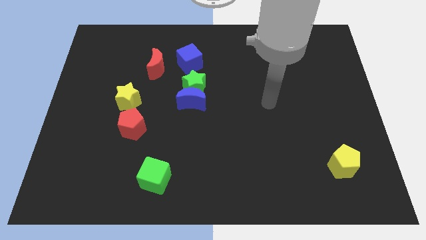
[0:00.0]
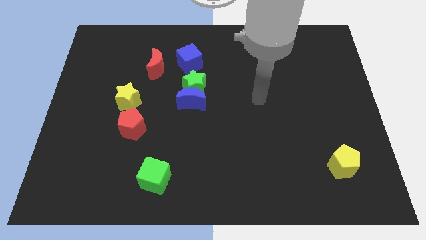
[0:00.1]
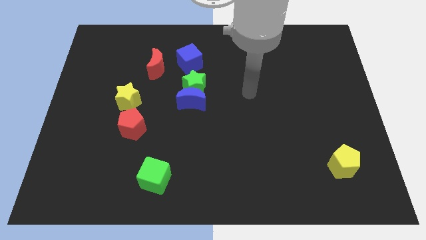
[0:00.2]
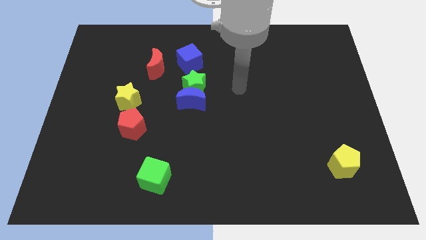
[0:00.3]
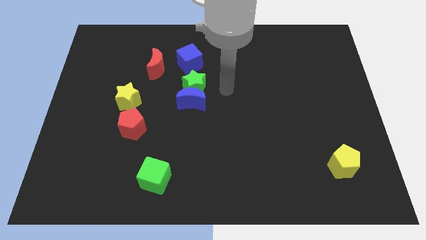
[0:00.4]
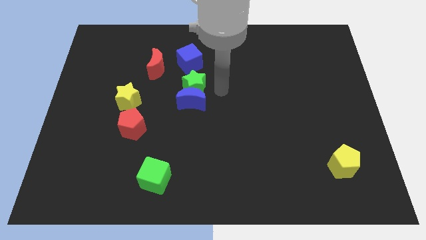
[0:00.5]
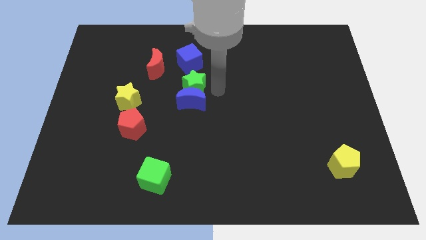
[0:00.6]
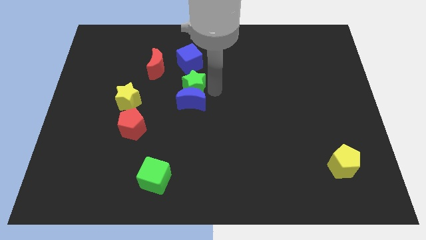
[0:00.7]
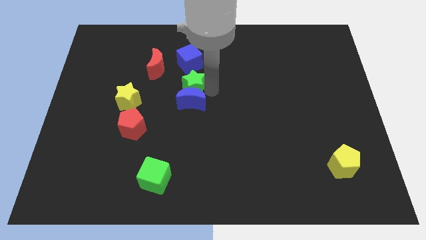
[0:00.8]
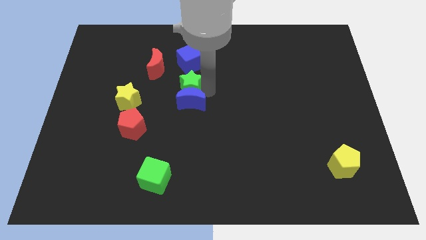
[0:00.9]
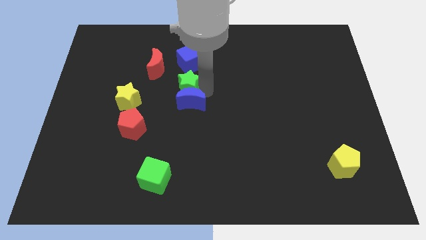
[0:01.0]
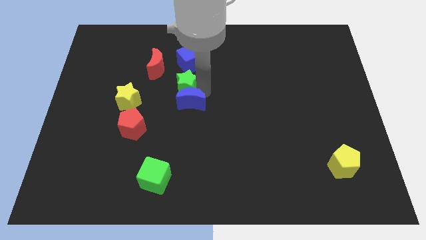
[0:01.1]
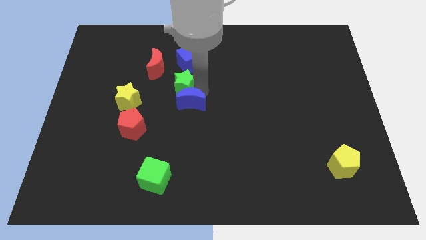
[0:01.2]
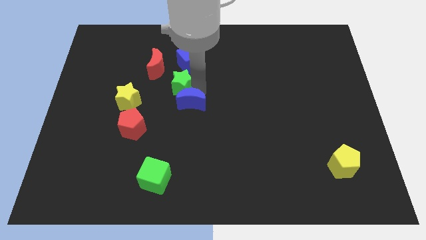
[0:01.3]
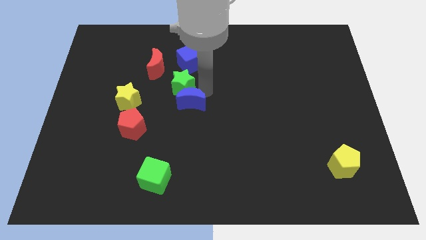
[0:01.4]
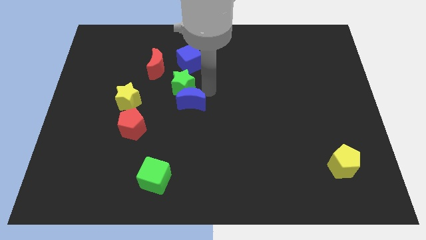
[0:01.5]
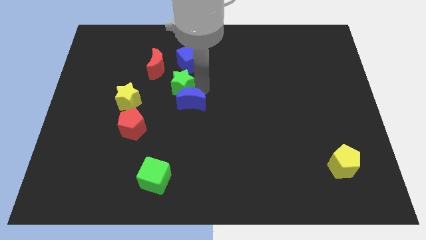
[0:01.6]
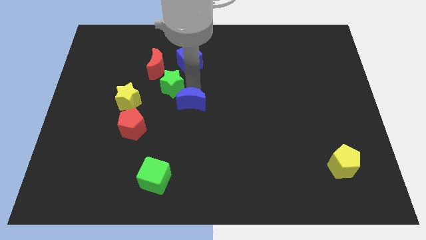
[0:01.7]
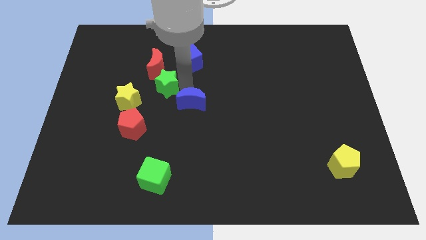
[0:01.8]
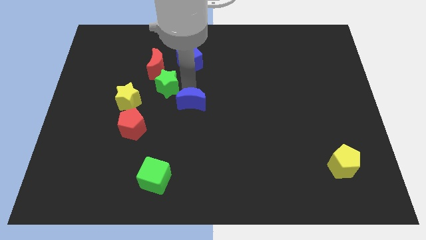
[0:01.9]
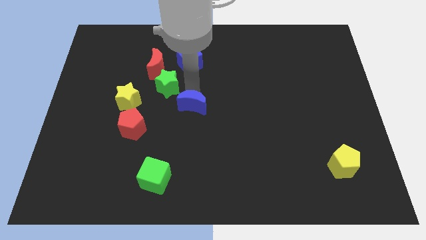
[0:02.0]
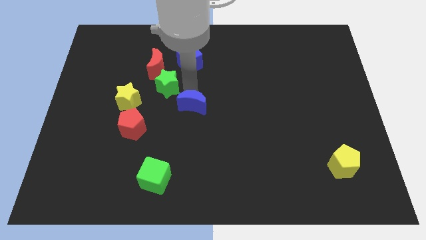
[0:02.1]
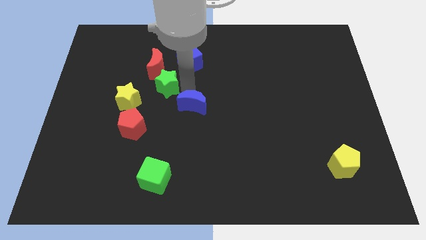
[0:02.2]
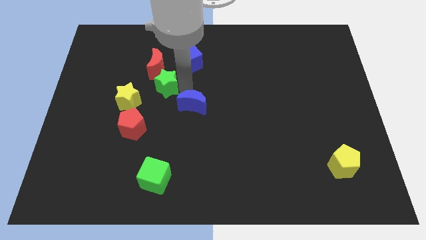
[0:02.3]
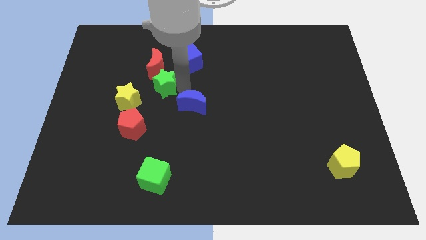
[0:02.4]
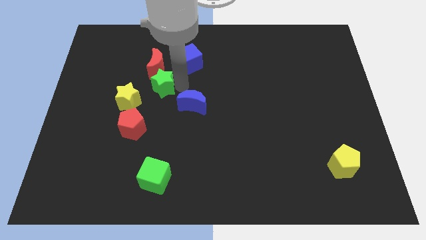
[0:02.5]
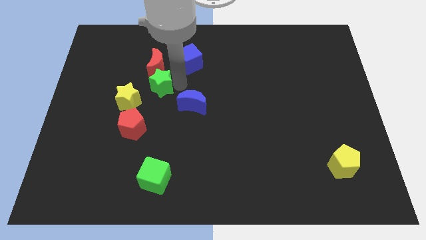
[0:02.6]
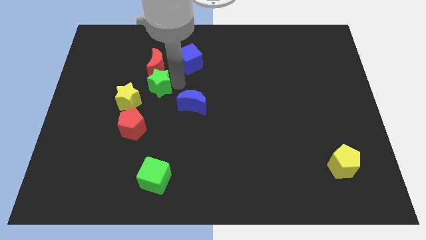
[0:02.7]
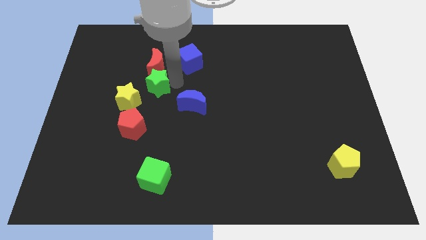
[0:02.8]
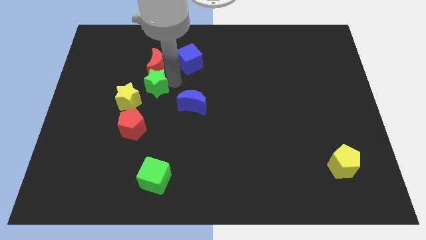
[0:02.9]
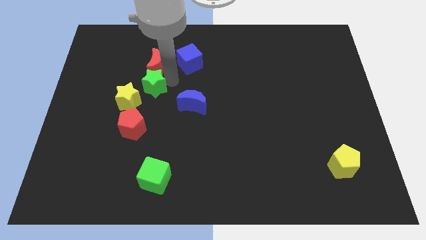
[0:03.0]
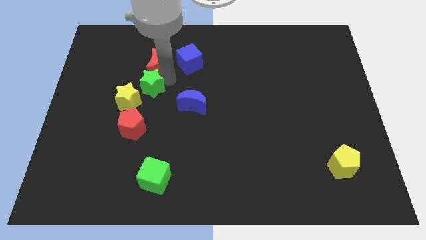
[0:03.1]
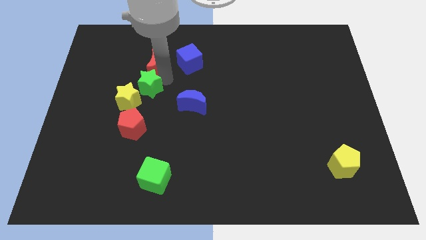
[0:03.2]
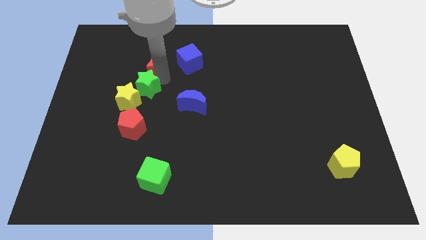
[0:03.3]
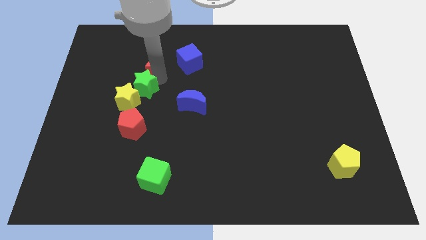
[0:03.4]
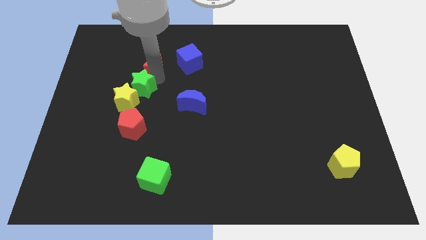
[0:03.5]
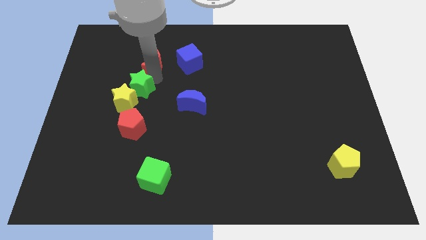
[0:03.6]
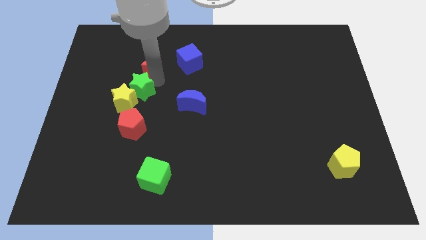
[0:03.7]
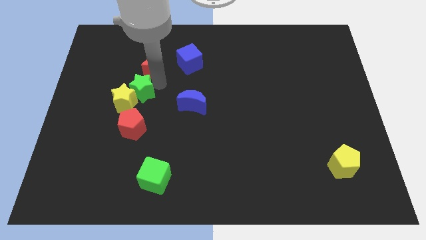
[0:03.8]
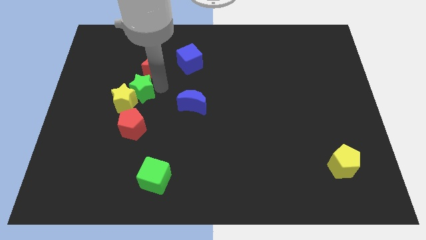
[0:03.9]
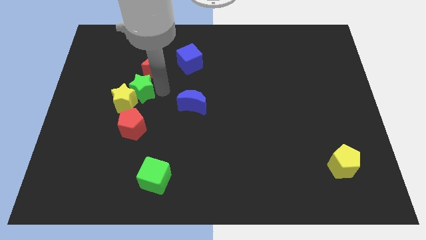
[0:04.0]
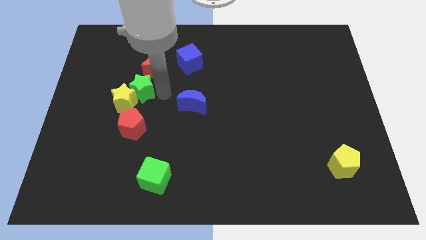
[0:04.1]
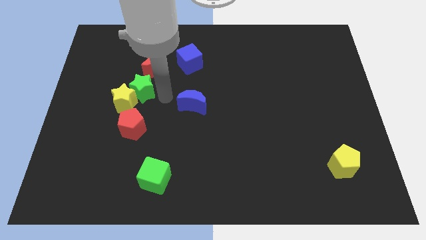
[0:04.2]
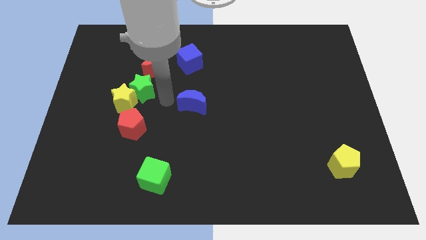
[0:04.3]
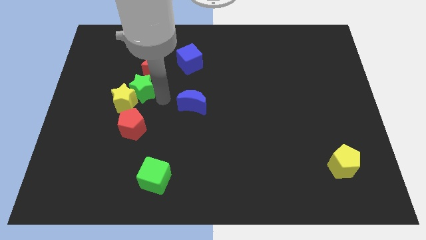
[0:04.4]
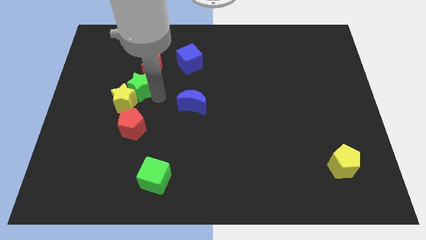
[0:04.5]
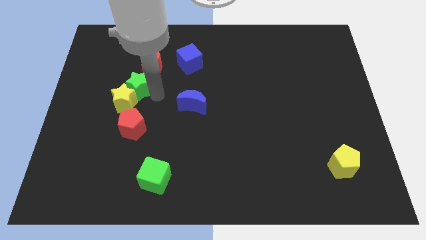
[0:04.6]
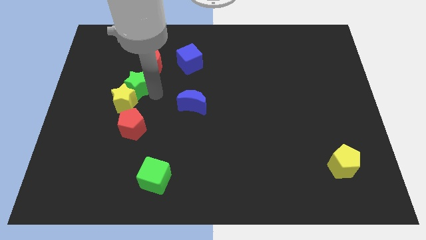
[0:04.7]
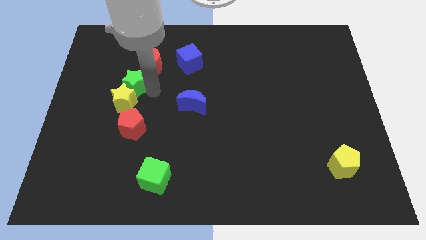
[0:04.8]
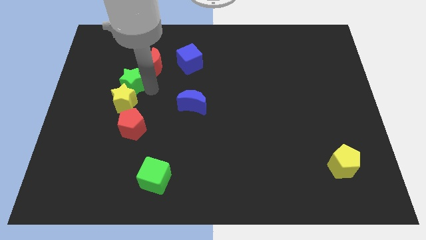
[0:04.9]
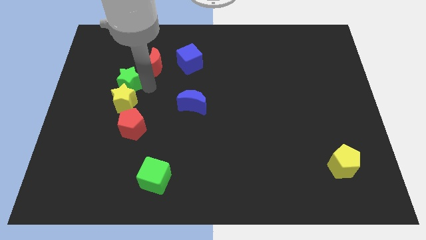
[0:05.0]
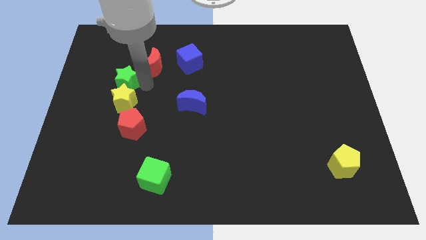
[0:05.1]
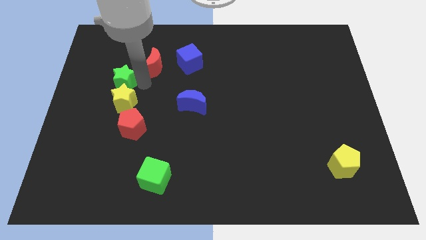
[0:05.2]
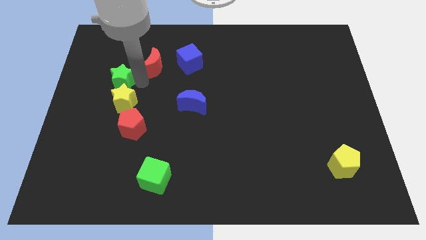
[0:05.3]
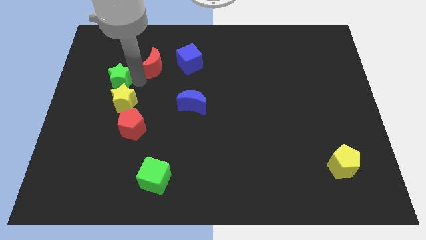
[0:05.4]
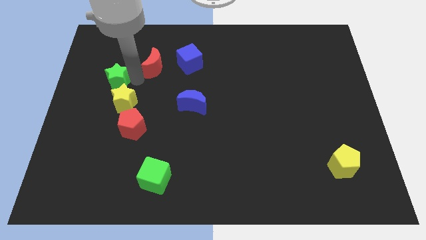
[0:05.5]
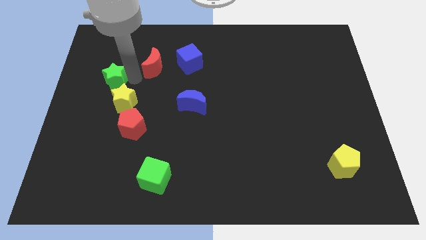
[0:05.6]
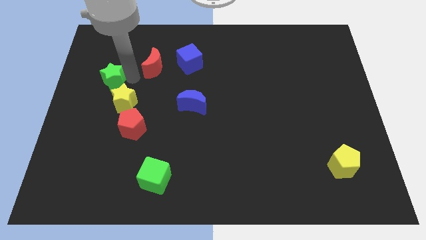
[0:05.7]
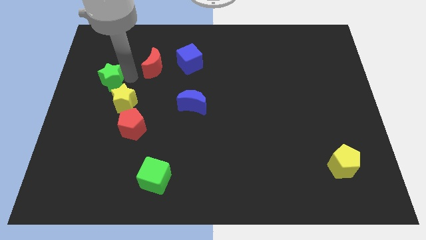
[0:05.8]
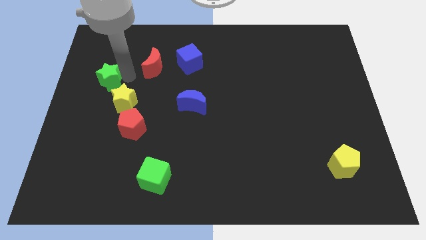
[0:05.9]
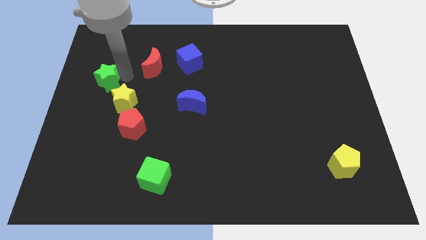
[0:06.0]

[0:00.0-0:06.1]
put the green star to the center left
